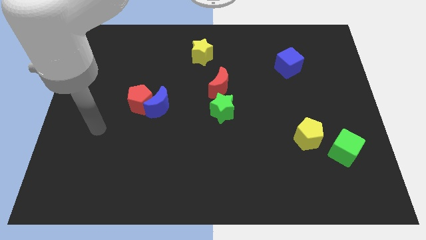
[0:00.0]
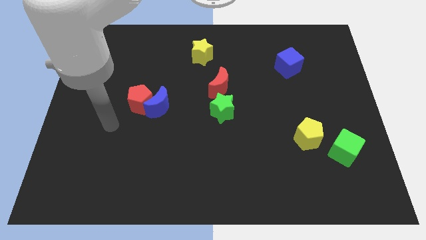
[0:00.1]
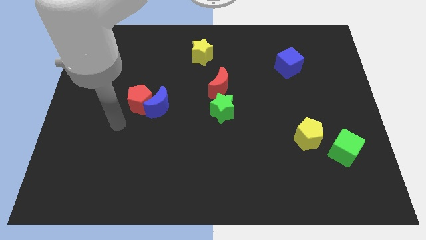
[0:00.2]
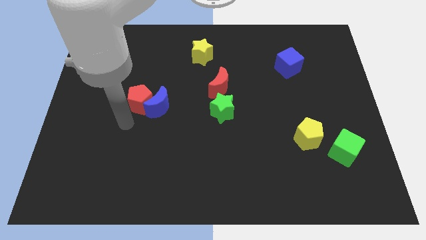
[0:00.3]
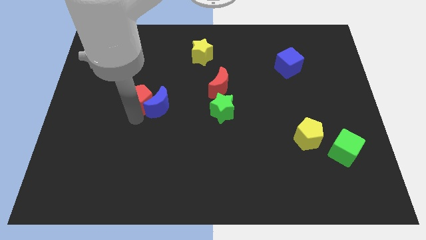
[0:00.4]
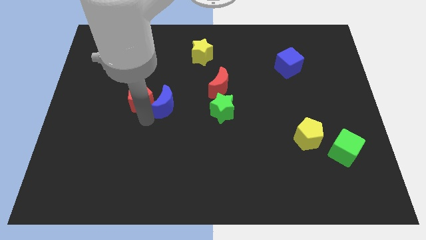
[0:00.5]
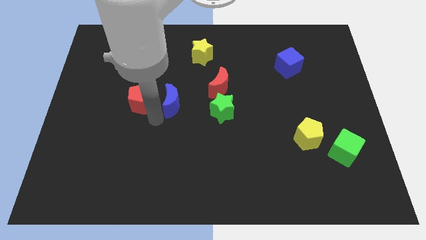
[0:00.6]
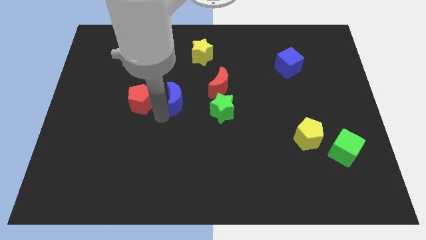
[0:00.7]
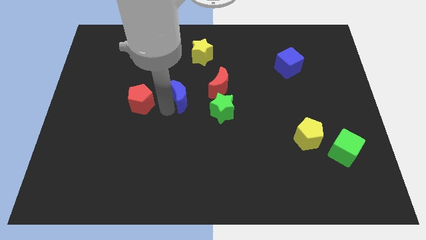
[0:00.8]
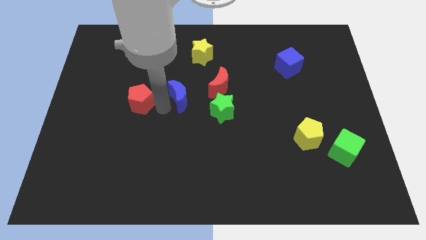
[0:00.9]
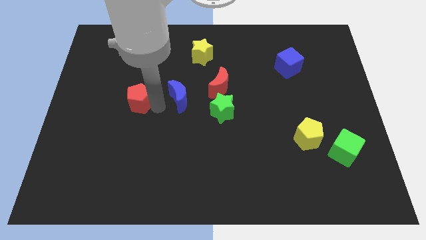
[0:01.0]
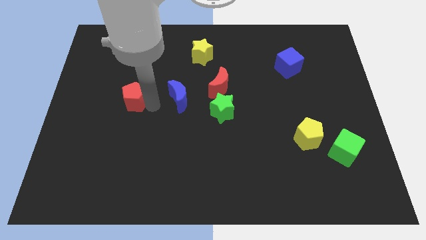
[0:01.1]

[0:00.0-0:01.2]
move the red pentagon away from the blue moon

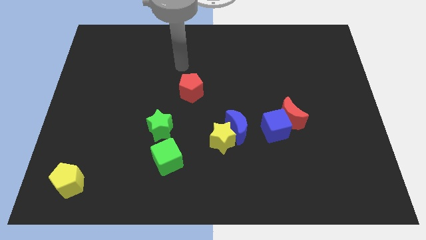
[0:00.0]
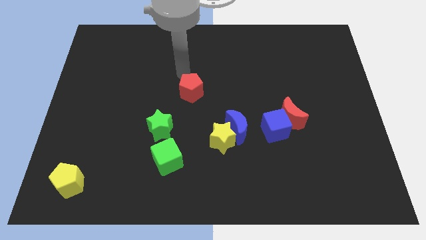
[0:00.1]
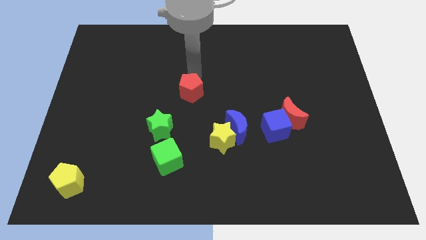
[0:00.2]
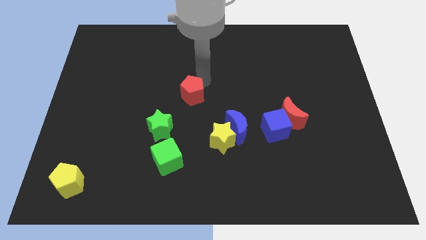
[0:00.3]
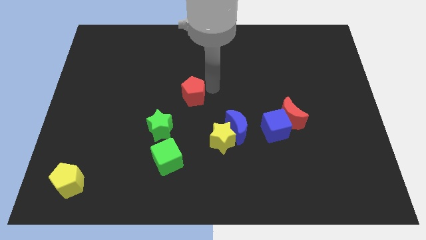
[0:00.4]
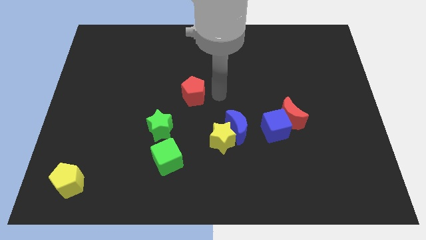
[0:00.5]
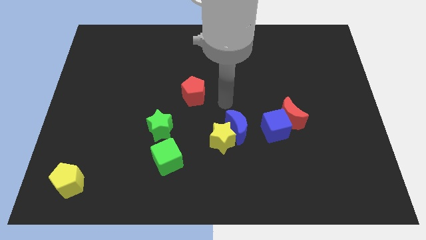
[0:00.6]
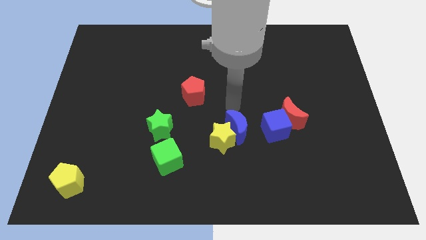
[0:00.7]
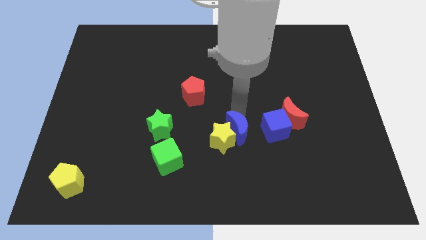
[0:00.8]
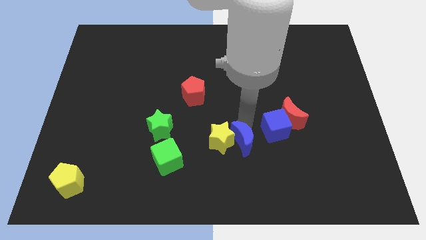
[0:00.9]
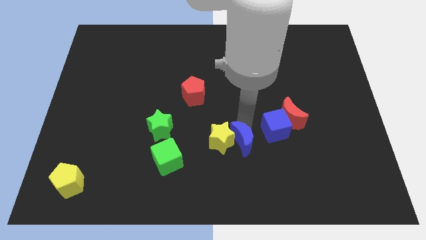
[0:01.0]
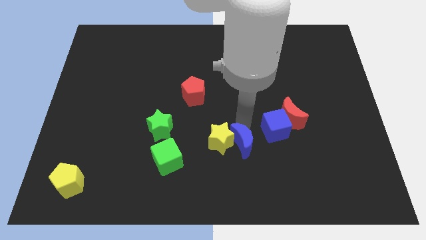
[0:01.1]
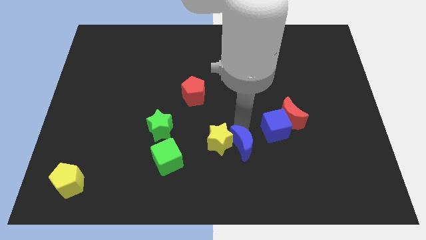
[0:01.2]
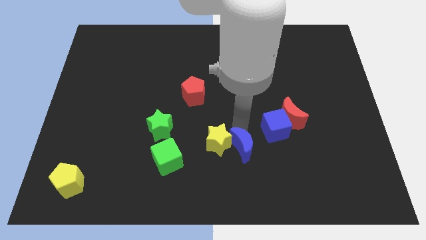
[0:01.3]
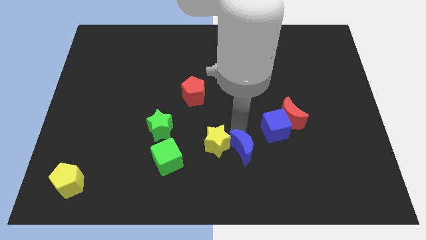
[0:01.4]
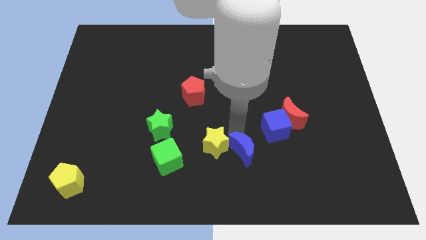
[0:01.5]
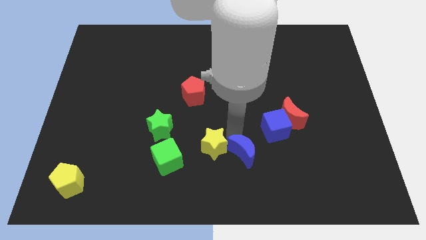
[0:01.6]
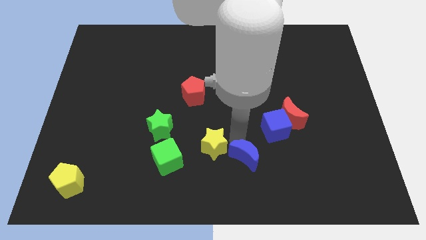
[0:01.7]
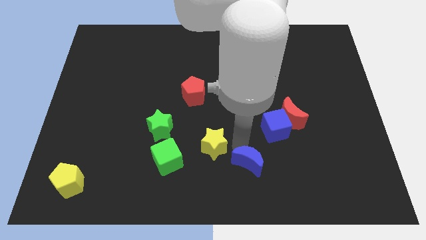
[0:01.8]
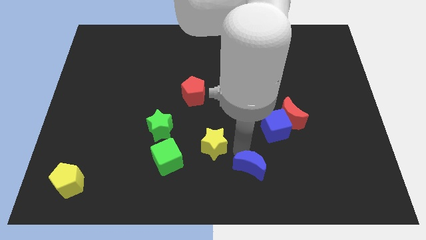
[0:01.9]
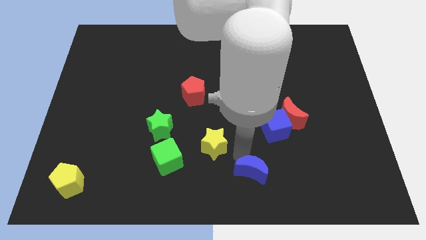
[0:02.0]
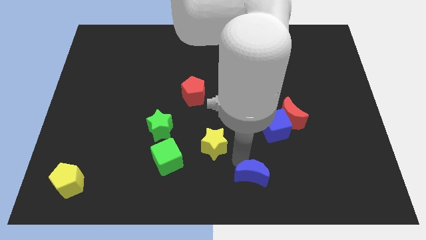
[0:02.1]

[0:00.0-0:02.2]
separate the yellow star from the blue moon

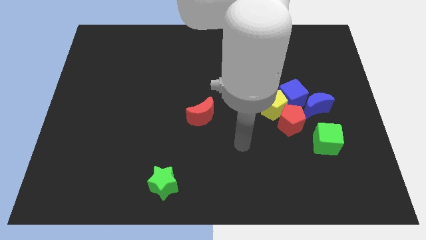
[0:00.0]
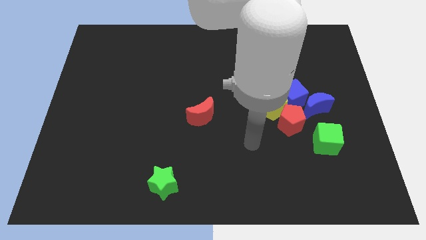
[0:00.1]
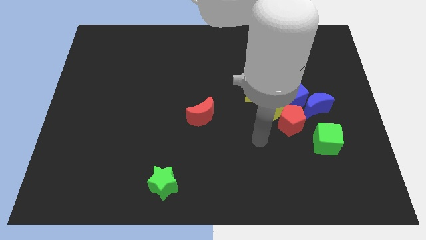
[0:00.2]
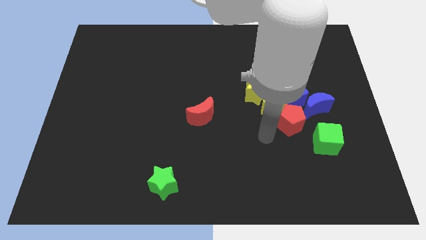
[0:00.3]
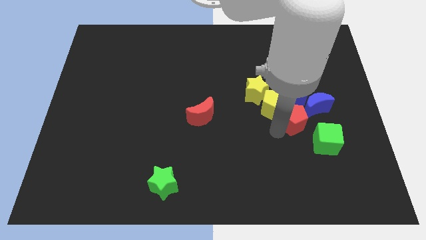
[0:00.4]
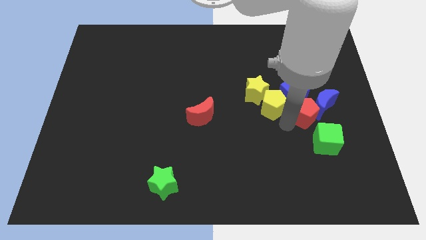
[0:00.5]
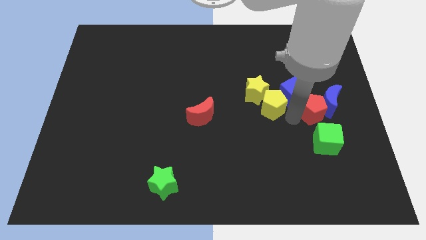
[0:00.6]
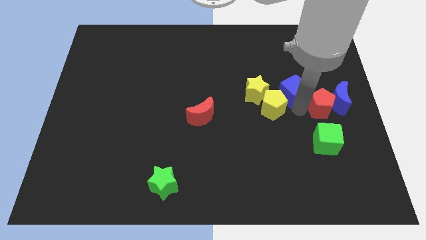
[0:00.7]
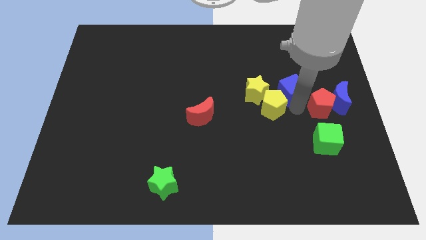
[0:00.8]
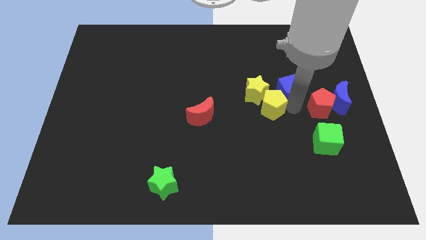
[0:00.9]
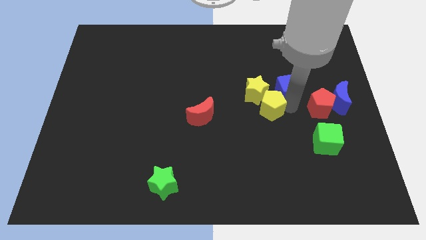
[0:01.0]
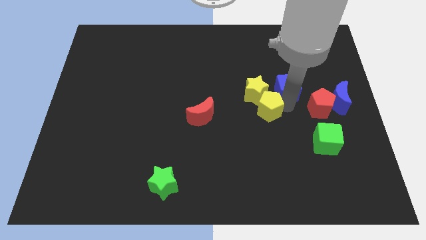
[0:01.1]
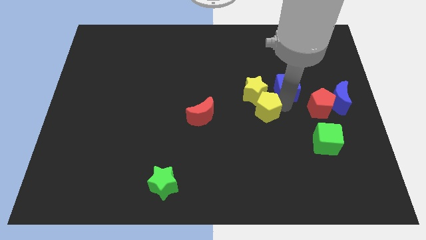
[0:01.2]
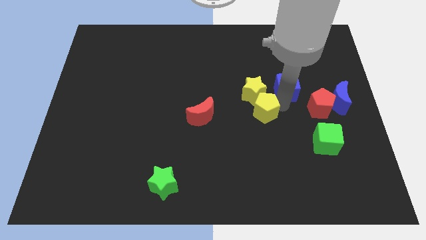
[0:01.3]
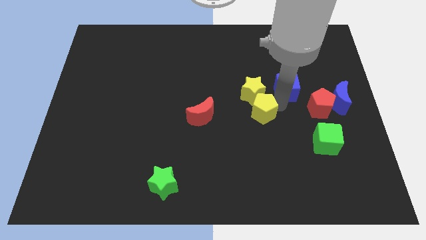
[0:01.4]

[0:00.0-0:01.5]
pull the yellow pentagon apart from the group

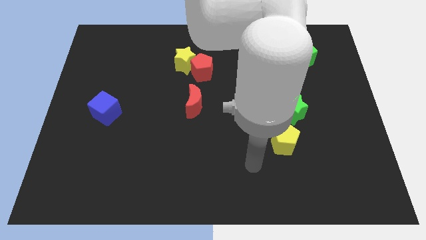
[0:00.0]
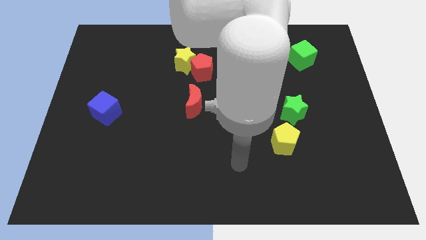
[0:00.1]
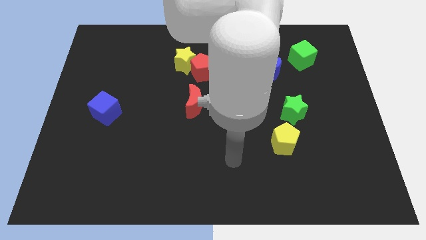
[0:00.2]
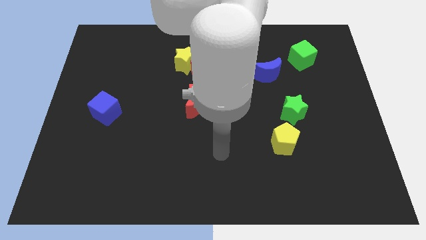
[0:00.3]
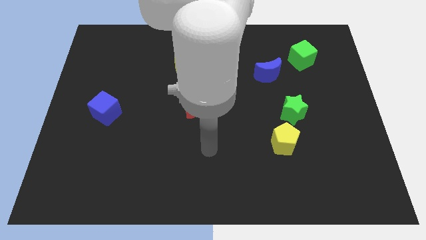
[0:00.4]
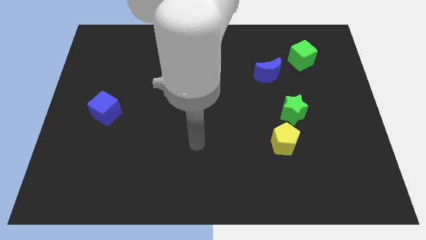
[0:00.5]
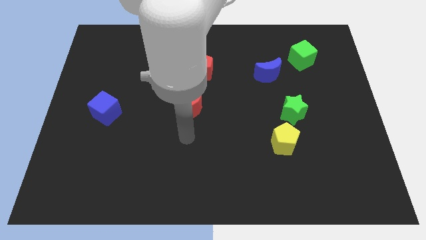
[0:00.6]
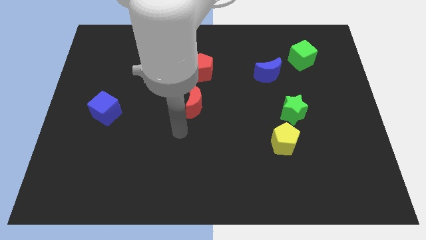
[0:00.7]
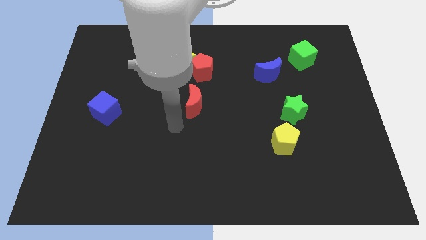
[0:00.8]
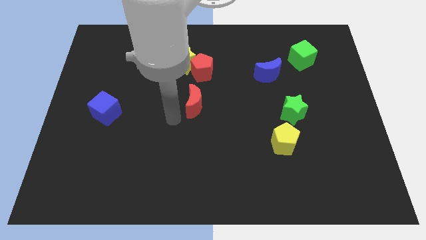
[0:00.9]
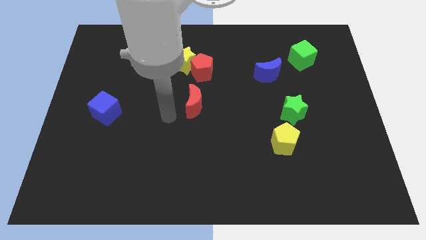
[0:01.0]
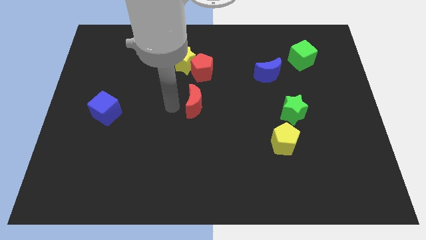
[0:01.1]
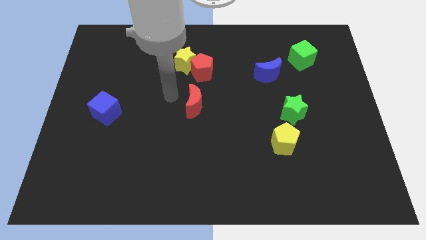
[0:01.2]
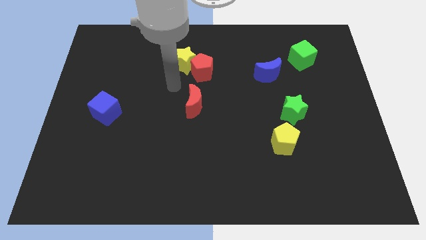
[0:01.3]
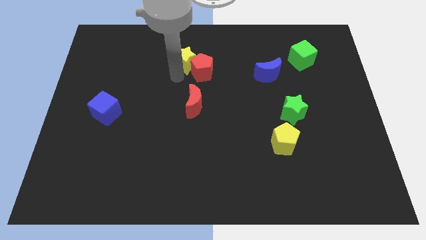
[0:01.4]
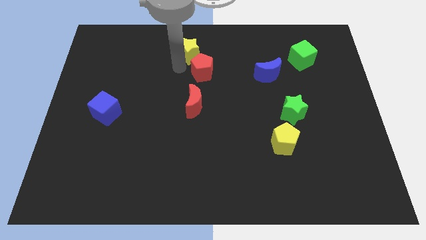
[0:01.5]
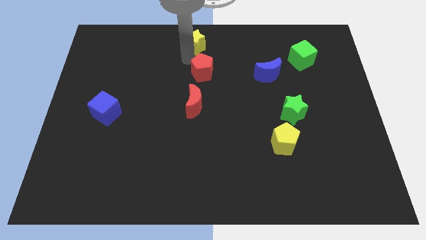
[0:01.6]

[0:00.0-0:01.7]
move the red pentagon away from the yellow star

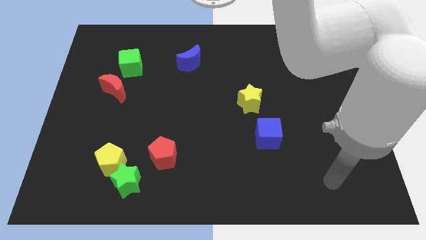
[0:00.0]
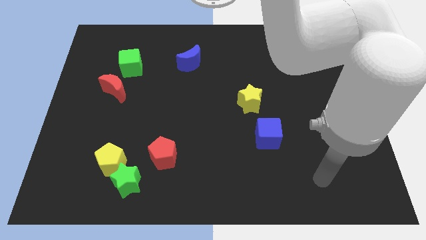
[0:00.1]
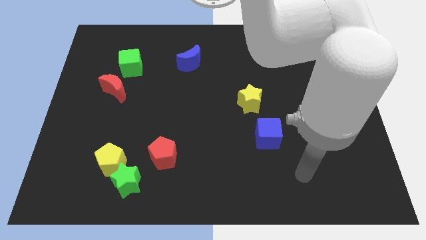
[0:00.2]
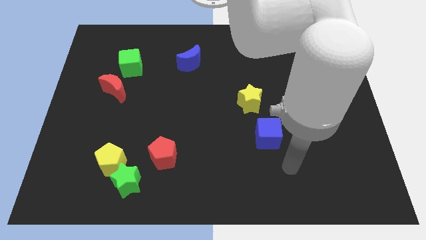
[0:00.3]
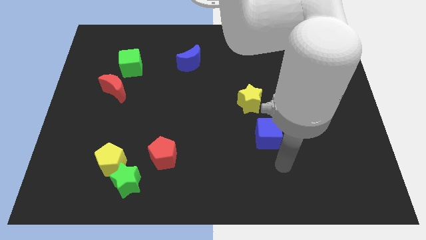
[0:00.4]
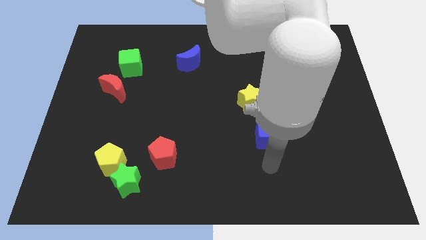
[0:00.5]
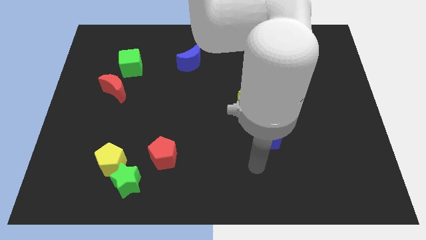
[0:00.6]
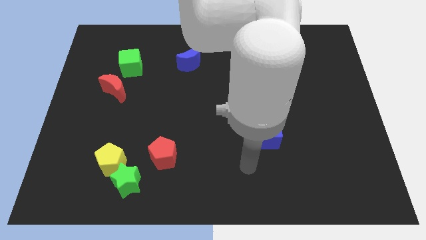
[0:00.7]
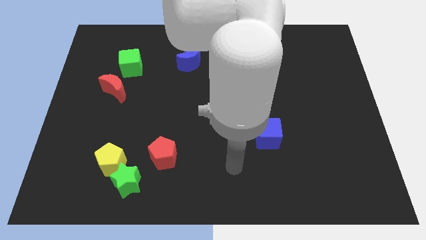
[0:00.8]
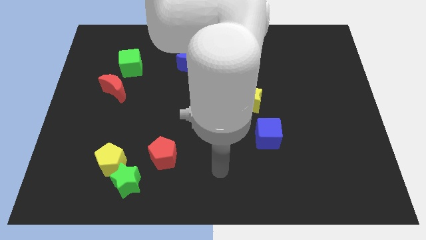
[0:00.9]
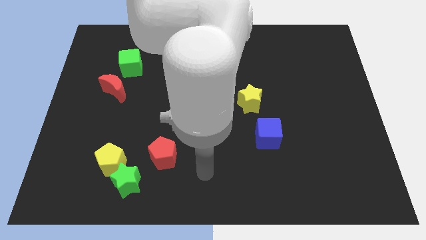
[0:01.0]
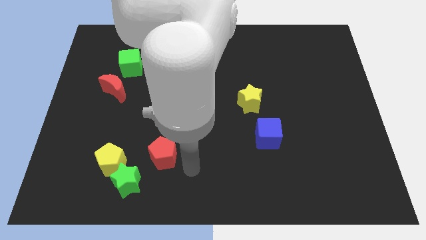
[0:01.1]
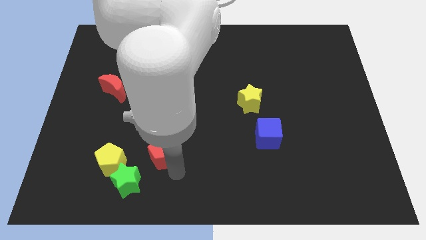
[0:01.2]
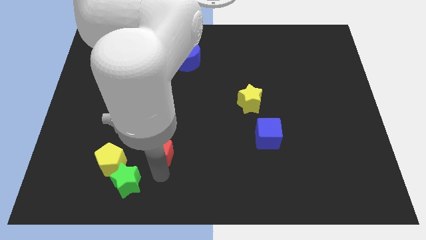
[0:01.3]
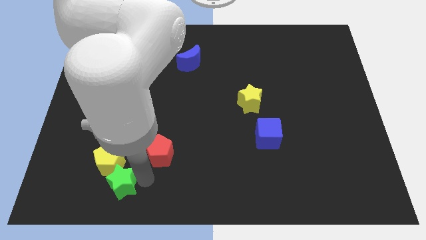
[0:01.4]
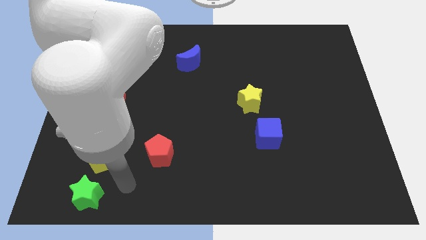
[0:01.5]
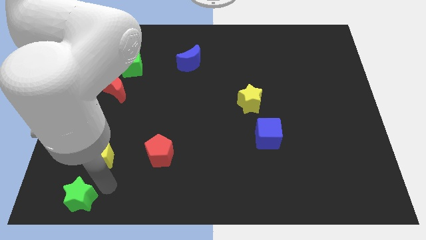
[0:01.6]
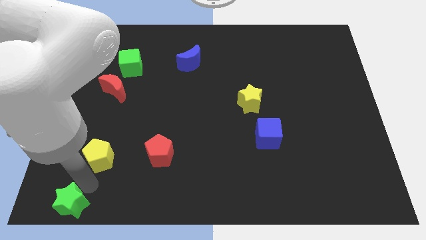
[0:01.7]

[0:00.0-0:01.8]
separate the yellow pentagon from the green star

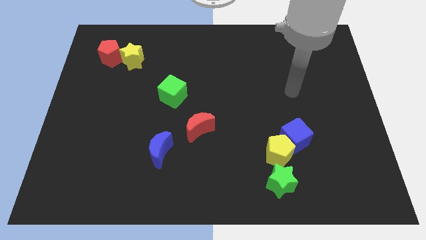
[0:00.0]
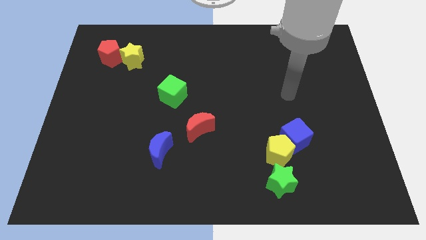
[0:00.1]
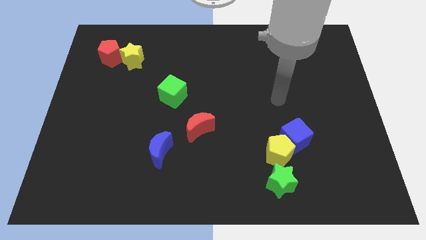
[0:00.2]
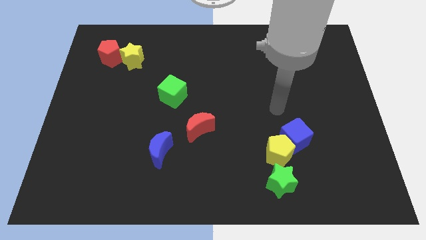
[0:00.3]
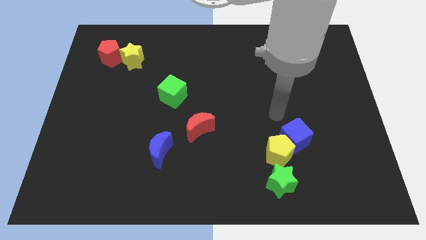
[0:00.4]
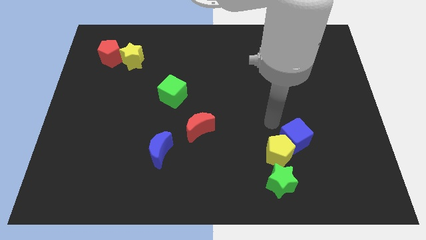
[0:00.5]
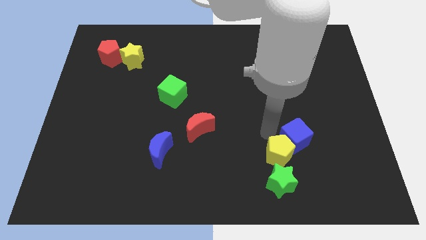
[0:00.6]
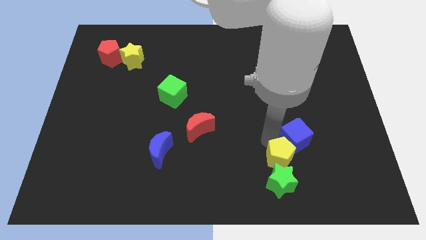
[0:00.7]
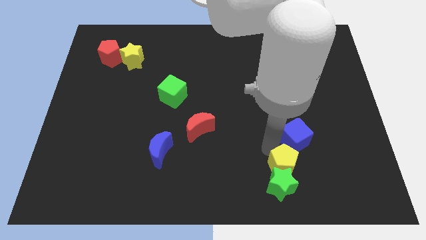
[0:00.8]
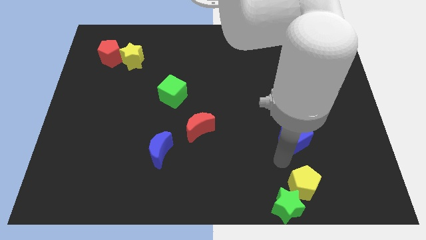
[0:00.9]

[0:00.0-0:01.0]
pull the blue cube apart from the yellow pentagon
